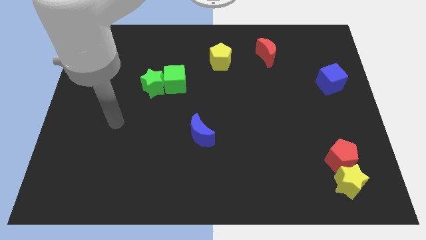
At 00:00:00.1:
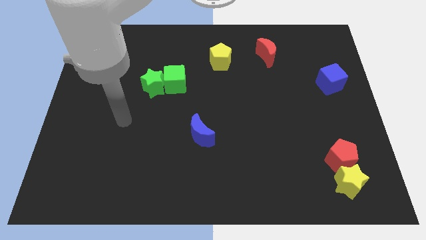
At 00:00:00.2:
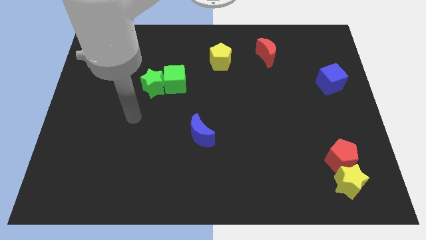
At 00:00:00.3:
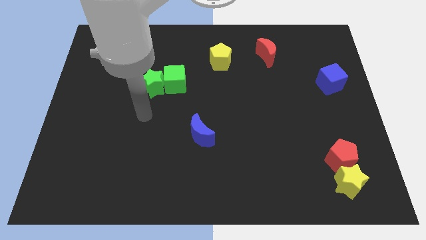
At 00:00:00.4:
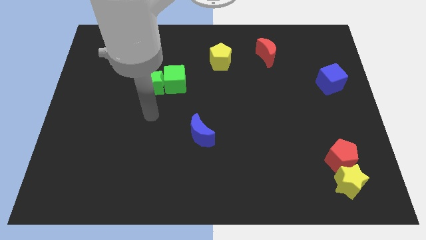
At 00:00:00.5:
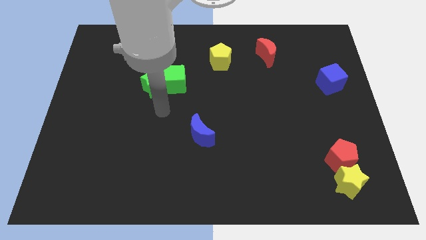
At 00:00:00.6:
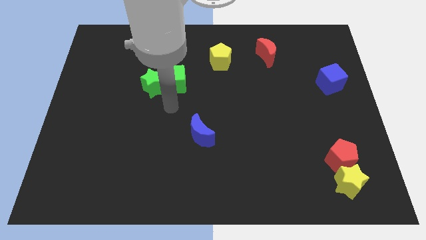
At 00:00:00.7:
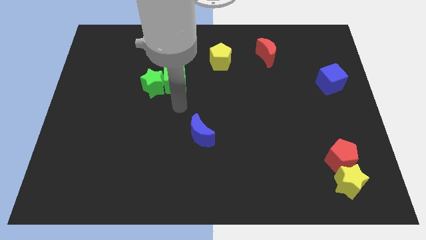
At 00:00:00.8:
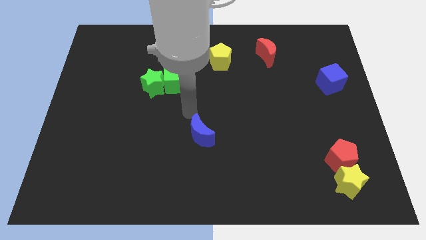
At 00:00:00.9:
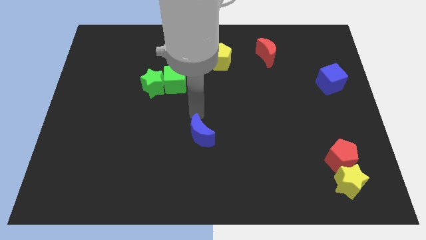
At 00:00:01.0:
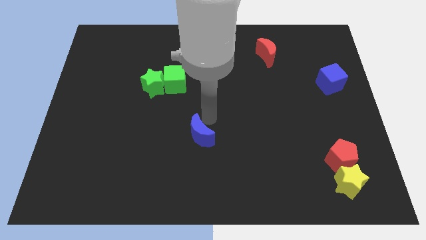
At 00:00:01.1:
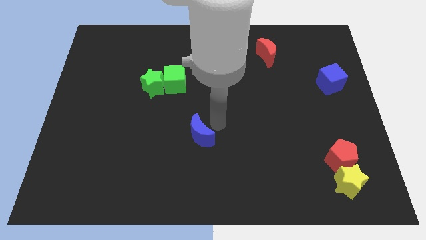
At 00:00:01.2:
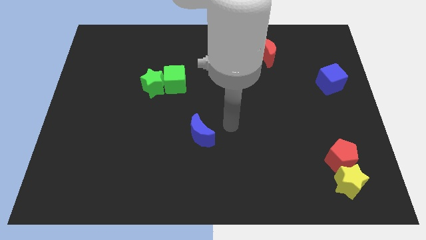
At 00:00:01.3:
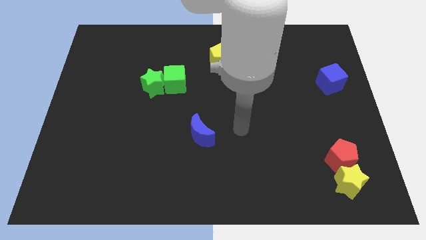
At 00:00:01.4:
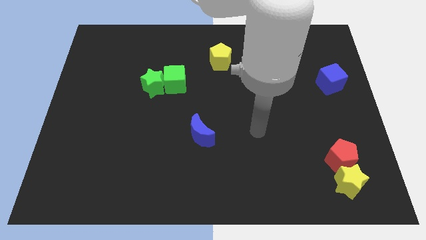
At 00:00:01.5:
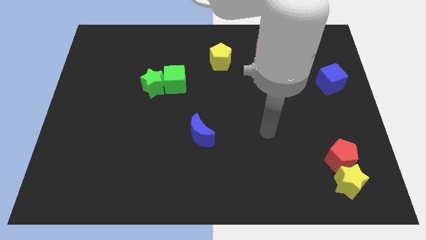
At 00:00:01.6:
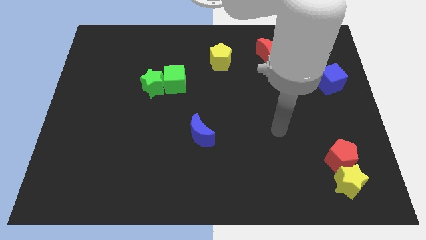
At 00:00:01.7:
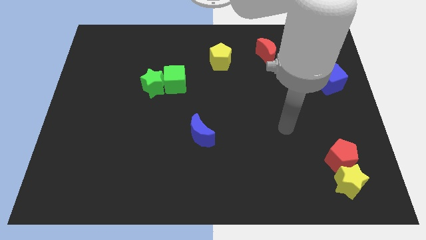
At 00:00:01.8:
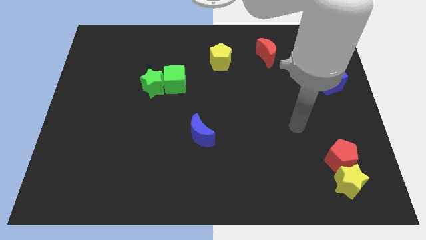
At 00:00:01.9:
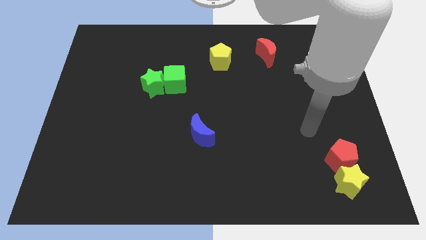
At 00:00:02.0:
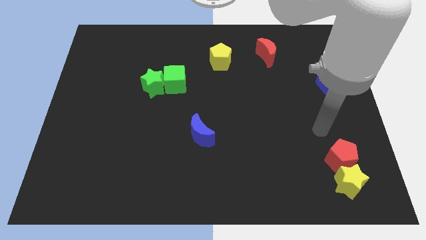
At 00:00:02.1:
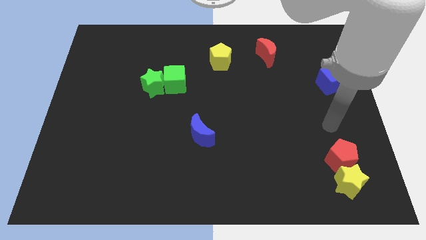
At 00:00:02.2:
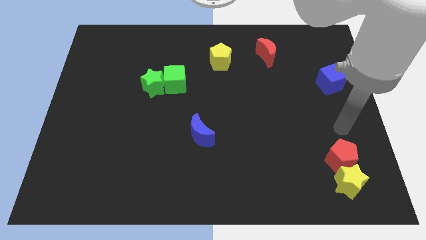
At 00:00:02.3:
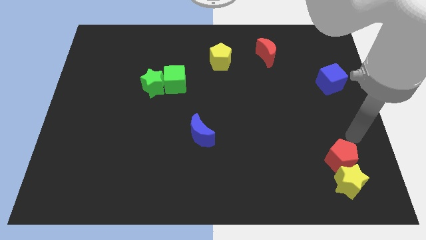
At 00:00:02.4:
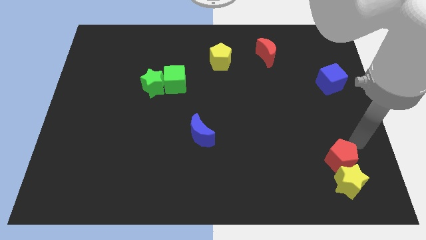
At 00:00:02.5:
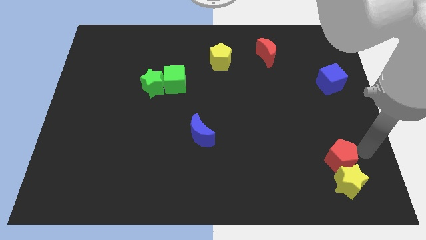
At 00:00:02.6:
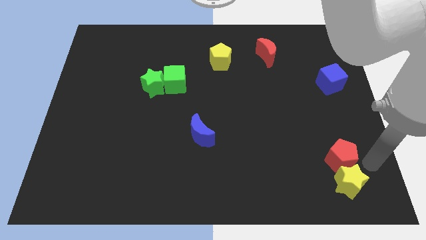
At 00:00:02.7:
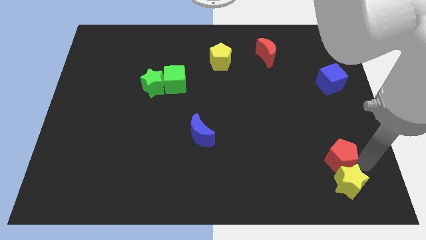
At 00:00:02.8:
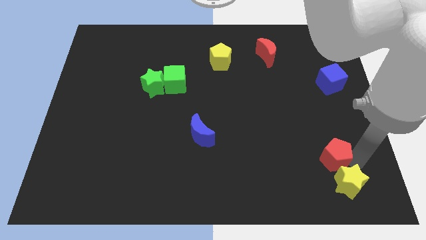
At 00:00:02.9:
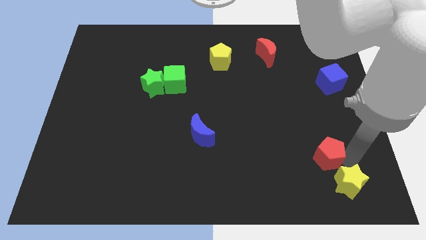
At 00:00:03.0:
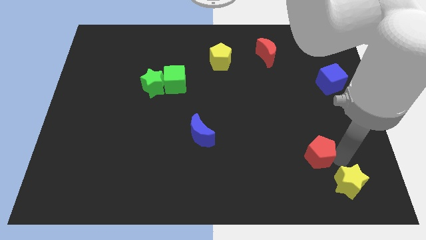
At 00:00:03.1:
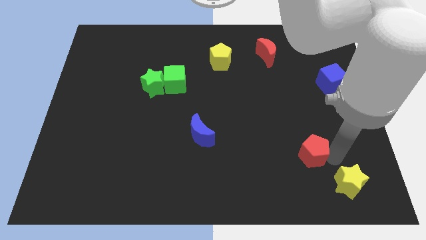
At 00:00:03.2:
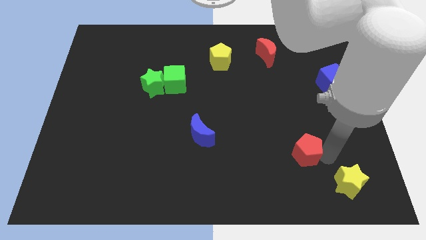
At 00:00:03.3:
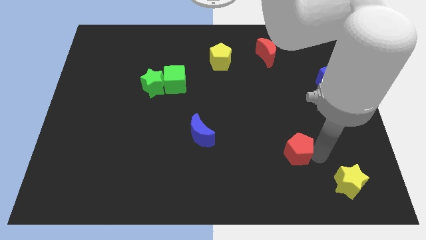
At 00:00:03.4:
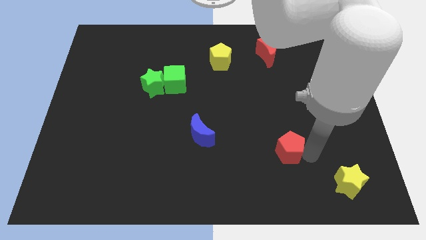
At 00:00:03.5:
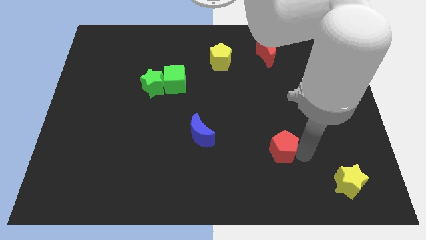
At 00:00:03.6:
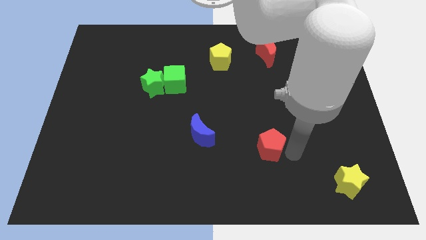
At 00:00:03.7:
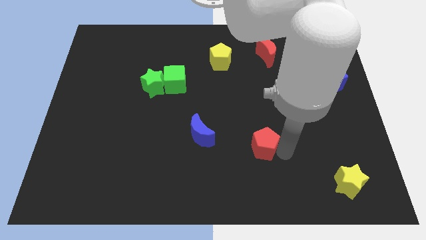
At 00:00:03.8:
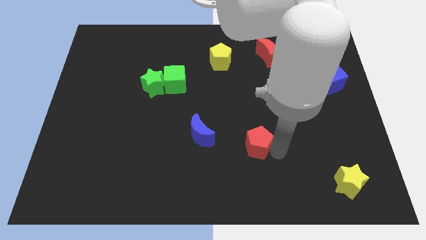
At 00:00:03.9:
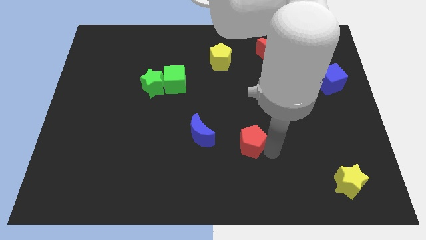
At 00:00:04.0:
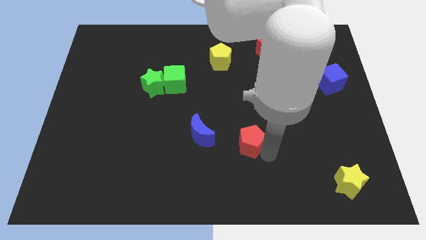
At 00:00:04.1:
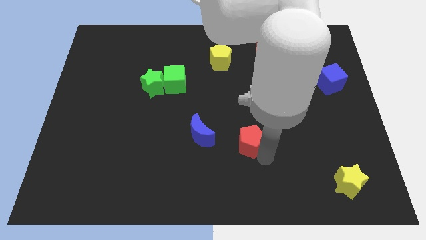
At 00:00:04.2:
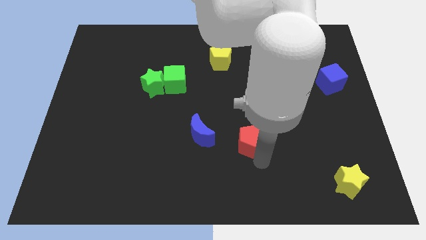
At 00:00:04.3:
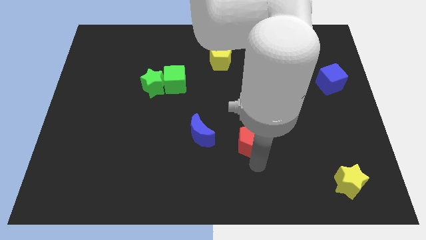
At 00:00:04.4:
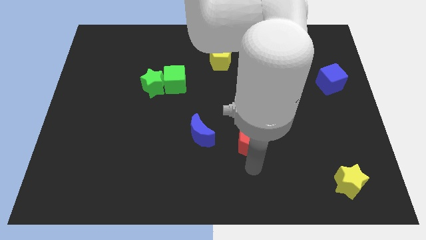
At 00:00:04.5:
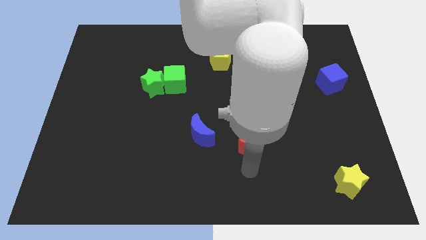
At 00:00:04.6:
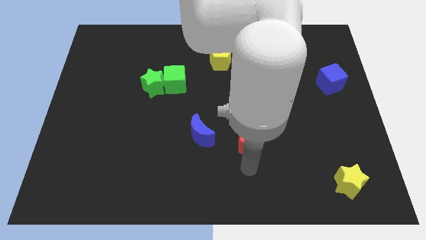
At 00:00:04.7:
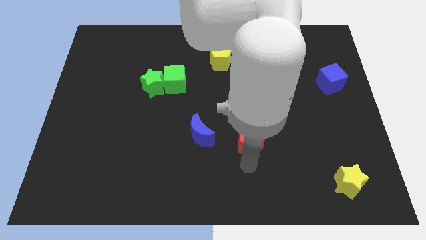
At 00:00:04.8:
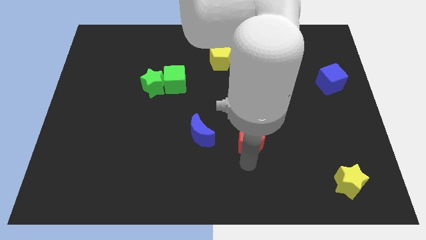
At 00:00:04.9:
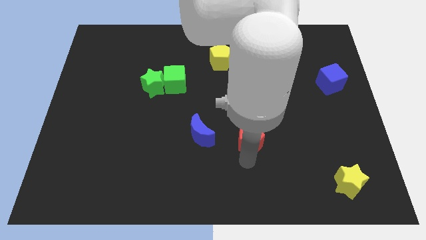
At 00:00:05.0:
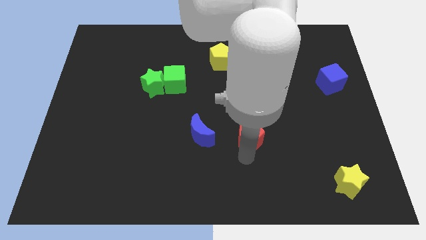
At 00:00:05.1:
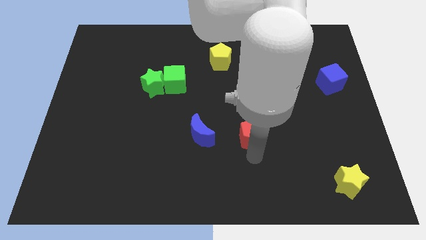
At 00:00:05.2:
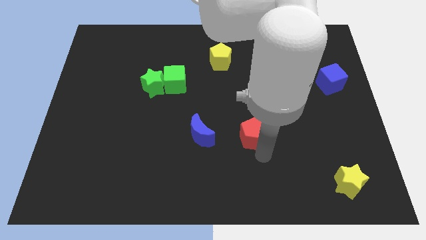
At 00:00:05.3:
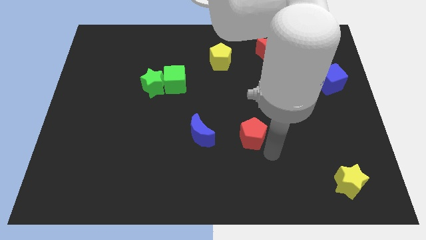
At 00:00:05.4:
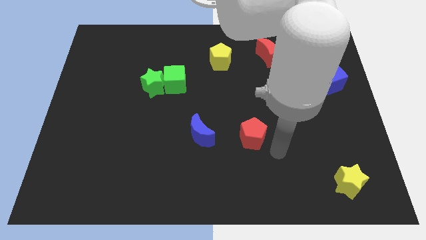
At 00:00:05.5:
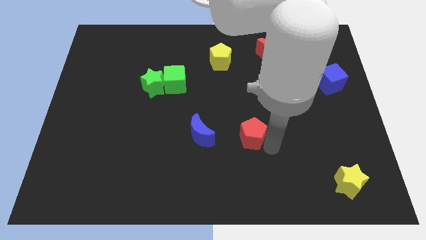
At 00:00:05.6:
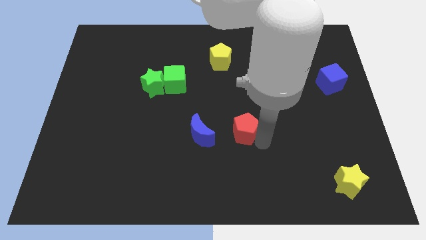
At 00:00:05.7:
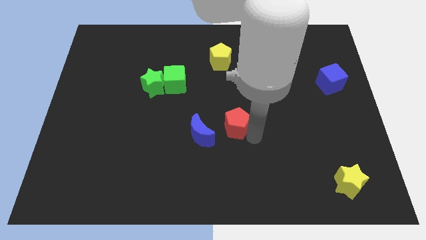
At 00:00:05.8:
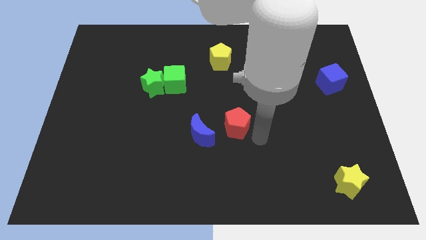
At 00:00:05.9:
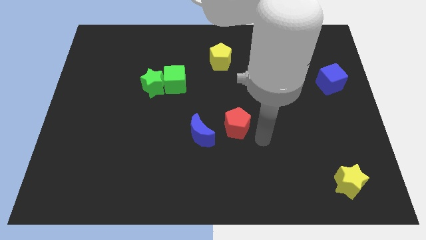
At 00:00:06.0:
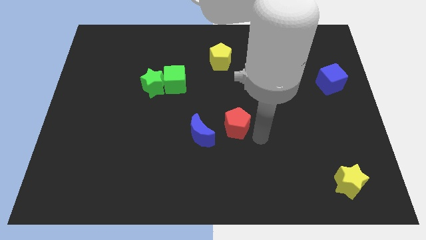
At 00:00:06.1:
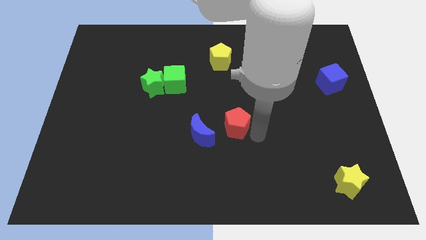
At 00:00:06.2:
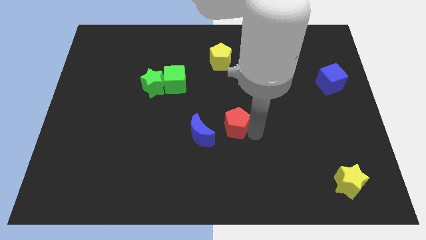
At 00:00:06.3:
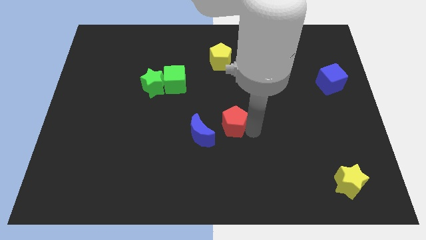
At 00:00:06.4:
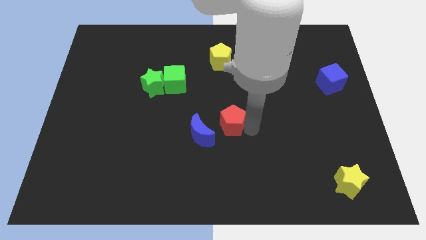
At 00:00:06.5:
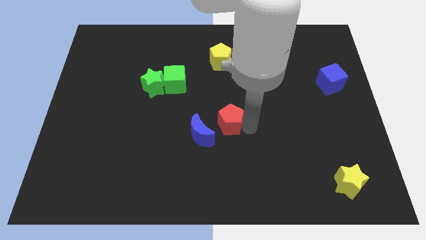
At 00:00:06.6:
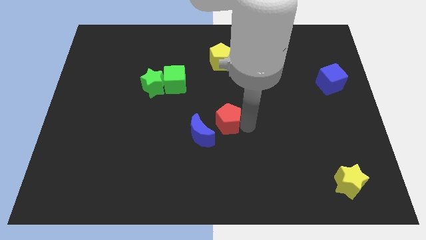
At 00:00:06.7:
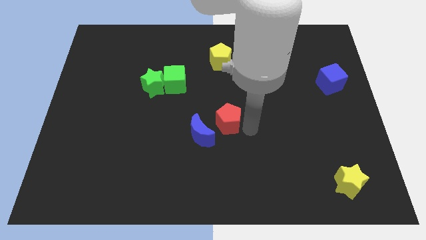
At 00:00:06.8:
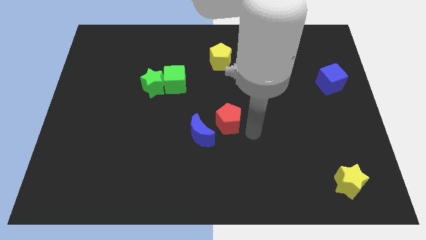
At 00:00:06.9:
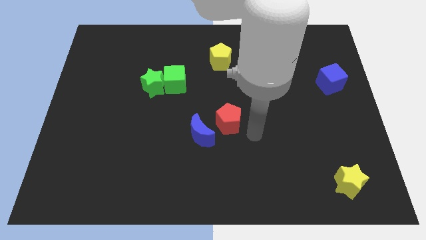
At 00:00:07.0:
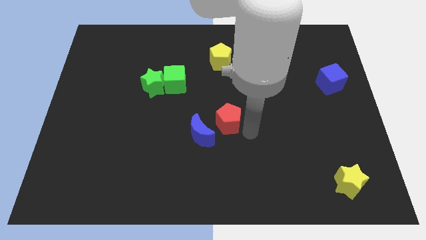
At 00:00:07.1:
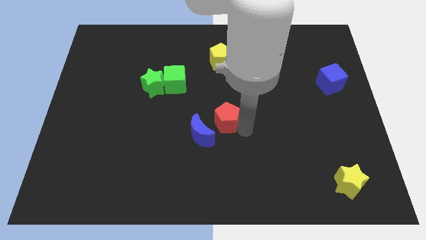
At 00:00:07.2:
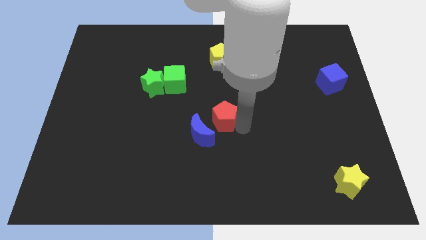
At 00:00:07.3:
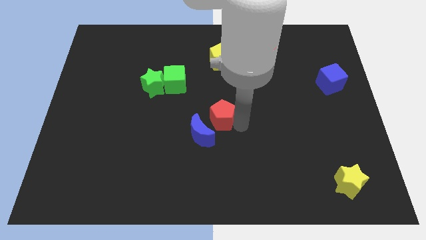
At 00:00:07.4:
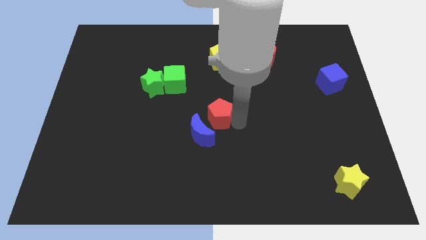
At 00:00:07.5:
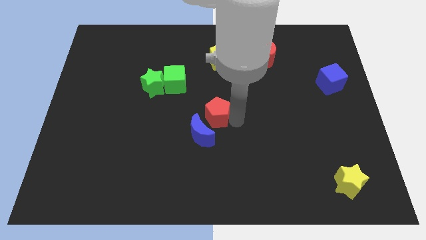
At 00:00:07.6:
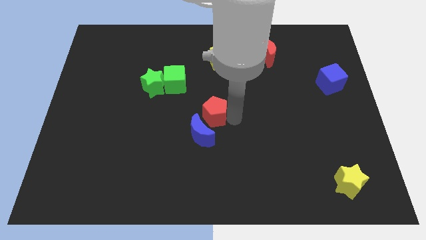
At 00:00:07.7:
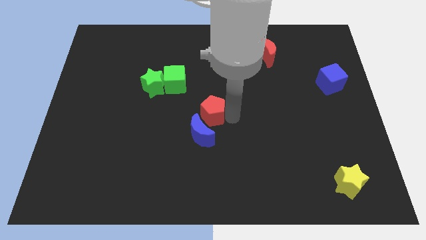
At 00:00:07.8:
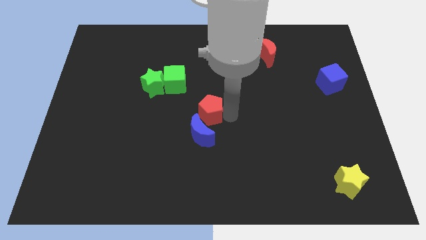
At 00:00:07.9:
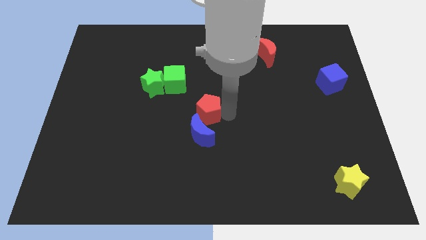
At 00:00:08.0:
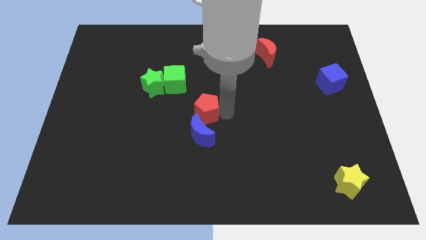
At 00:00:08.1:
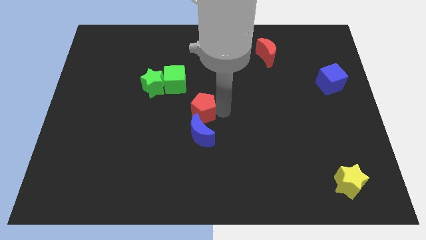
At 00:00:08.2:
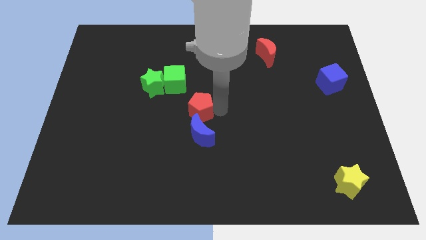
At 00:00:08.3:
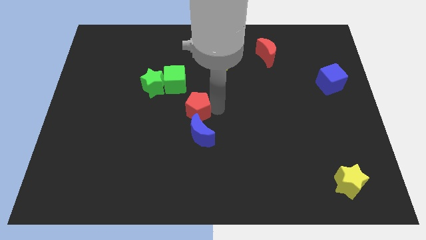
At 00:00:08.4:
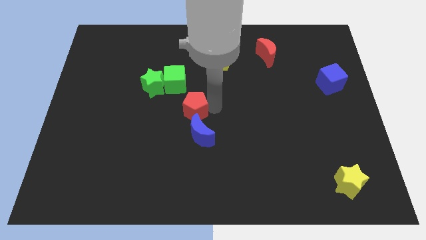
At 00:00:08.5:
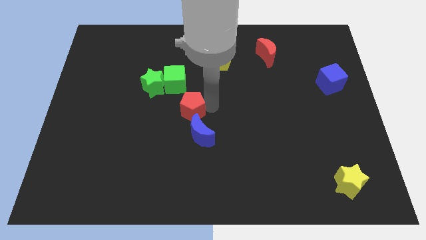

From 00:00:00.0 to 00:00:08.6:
push the red pentagon below the green cube
